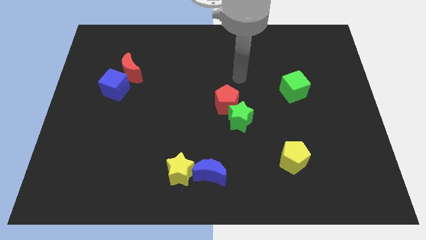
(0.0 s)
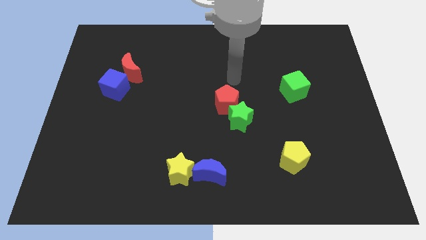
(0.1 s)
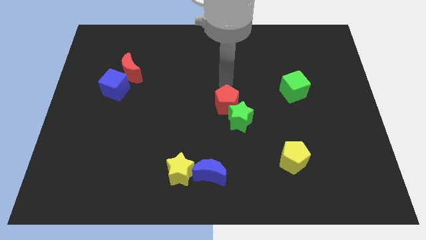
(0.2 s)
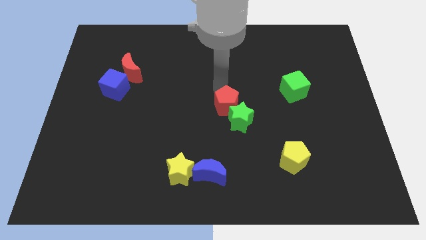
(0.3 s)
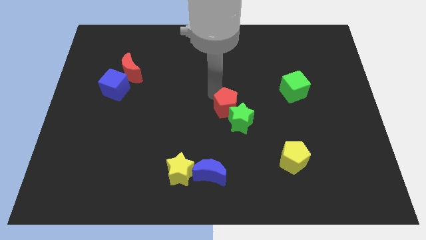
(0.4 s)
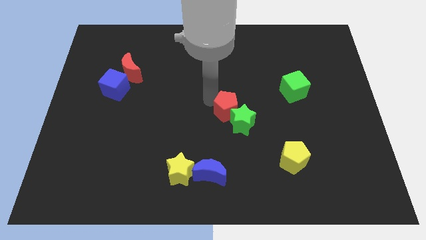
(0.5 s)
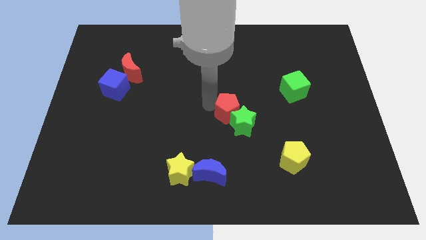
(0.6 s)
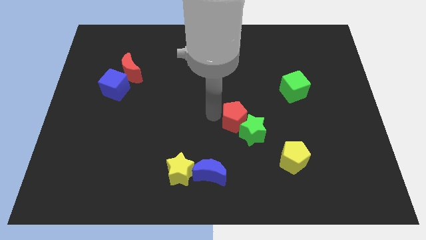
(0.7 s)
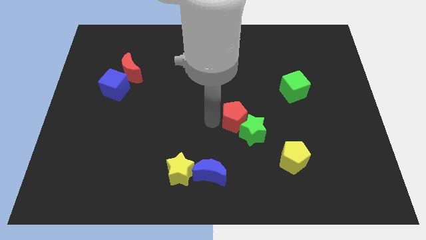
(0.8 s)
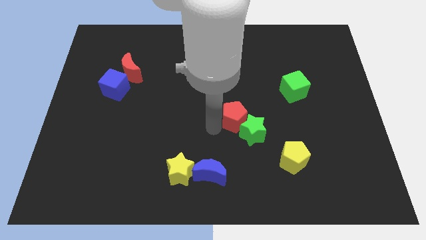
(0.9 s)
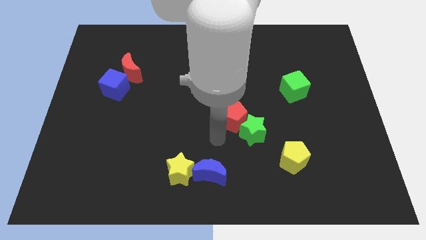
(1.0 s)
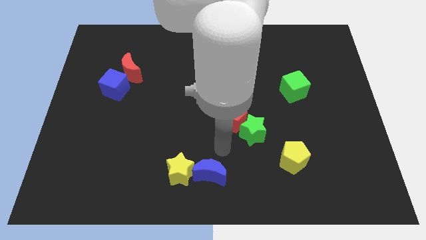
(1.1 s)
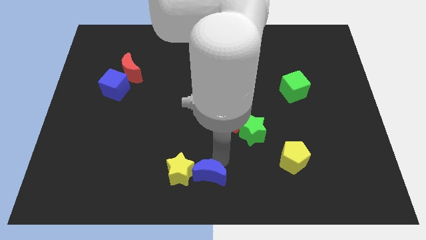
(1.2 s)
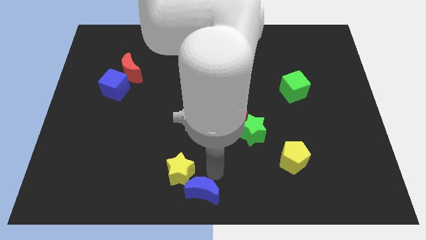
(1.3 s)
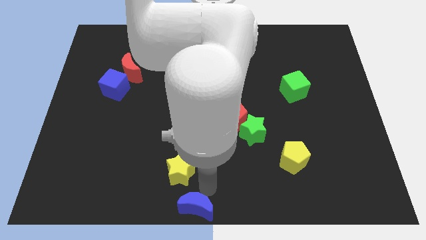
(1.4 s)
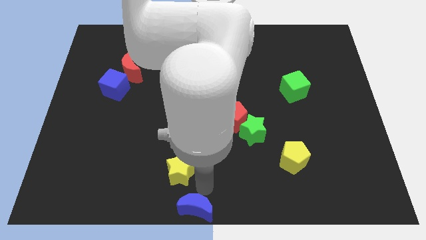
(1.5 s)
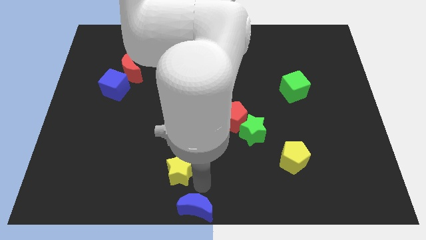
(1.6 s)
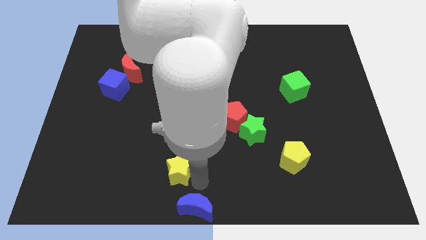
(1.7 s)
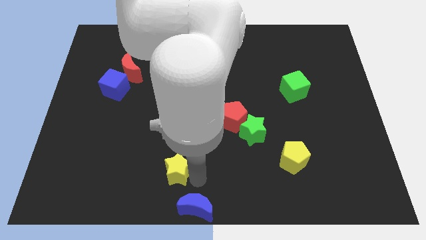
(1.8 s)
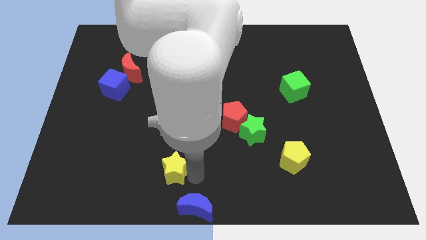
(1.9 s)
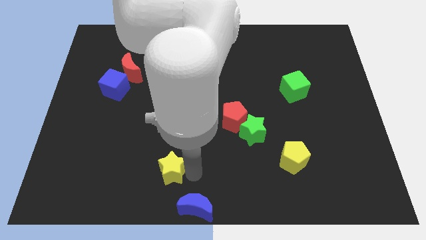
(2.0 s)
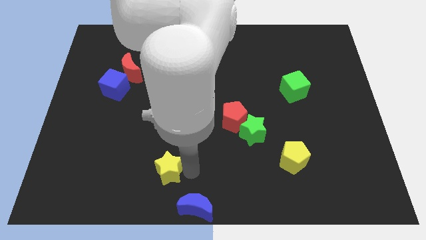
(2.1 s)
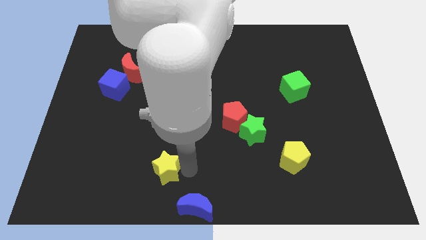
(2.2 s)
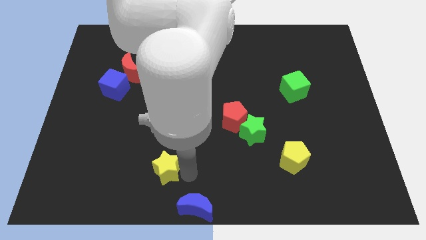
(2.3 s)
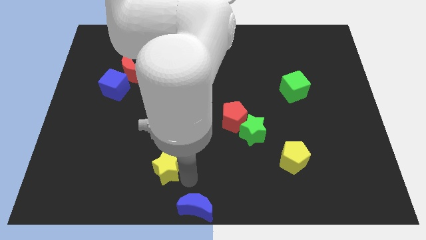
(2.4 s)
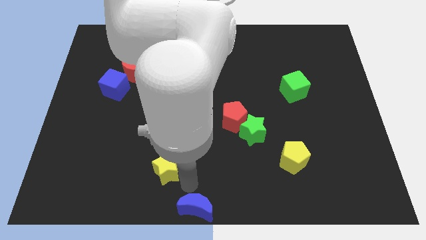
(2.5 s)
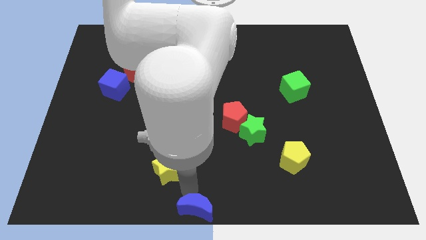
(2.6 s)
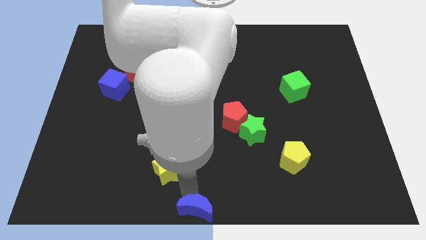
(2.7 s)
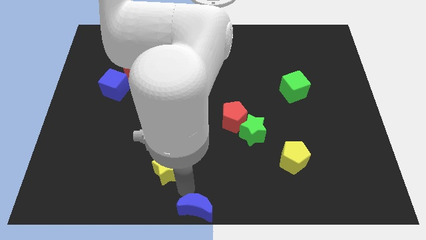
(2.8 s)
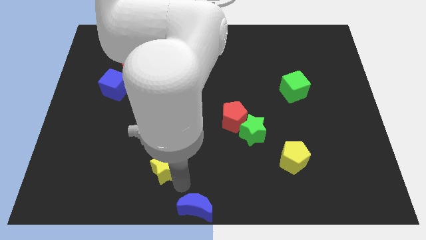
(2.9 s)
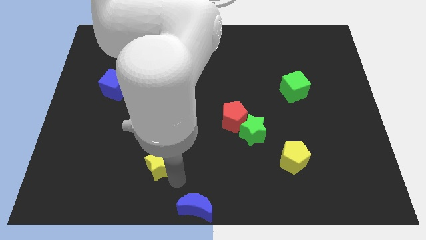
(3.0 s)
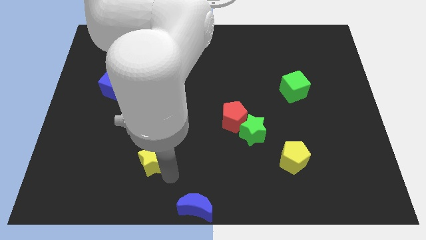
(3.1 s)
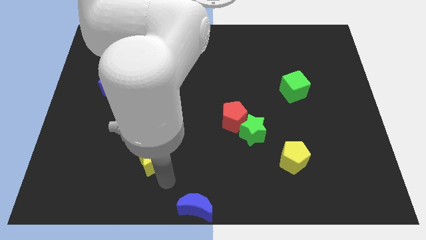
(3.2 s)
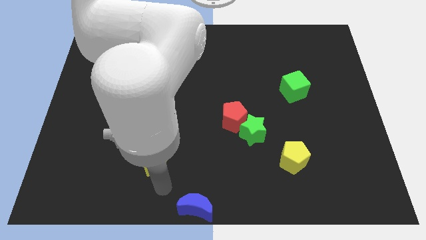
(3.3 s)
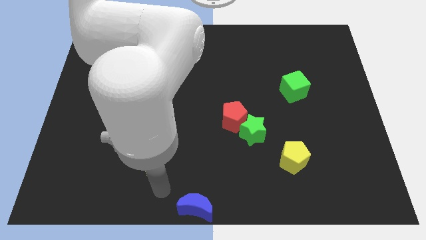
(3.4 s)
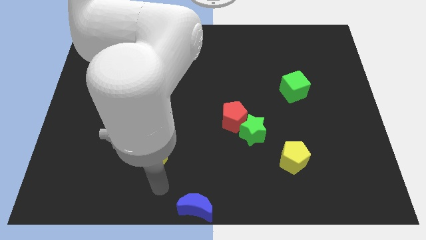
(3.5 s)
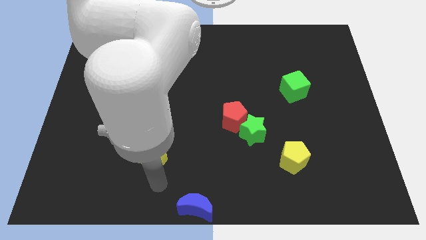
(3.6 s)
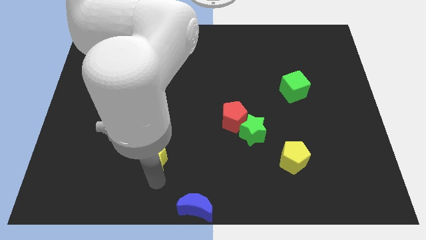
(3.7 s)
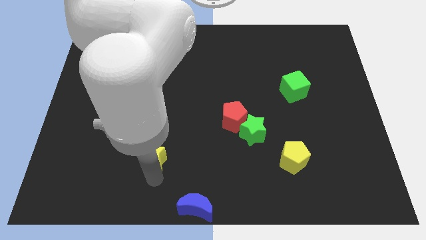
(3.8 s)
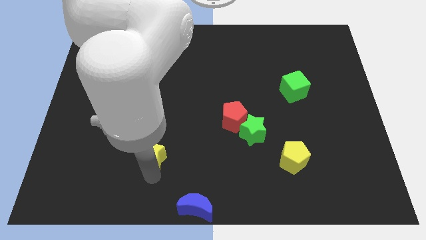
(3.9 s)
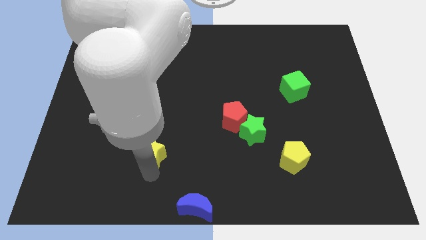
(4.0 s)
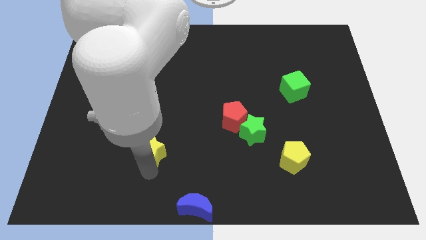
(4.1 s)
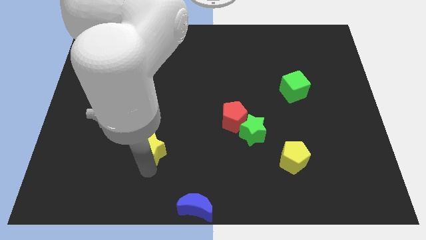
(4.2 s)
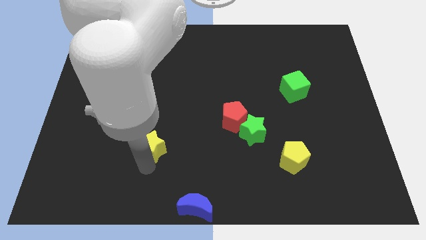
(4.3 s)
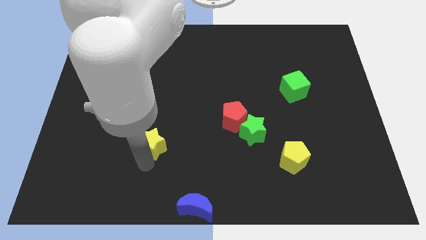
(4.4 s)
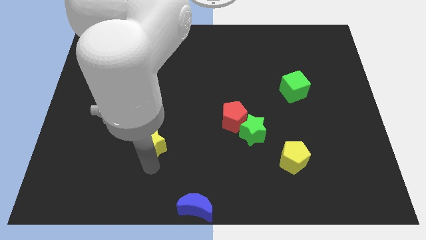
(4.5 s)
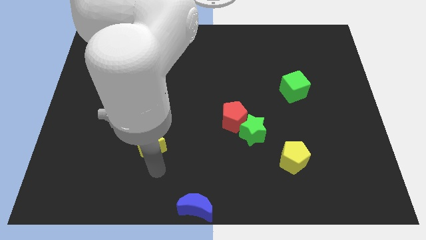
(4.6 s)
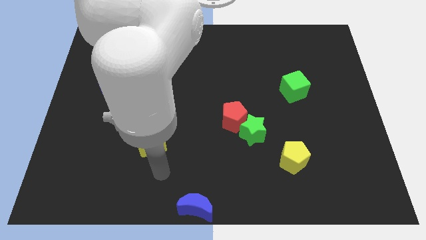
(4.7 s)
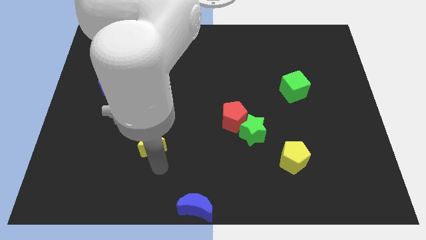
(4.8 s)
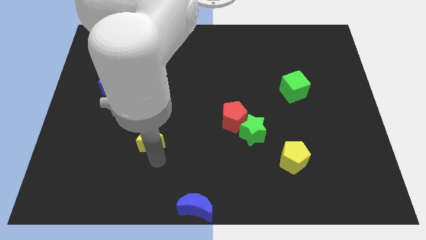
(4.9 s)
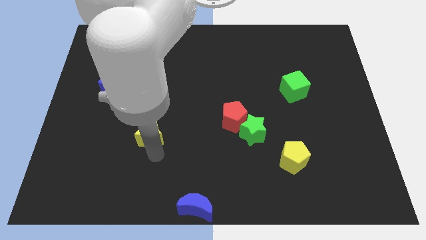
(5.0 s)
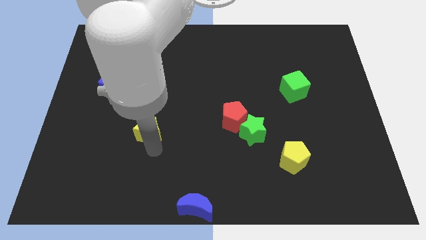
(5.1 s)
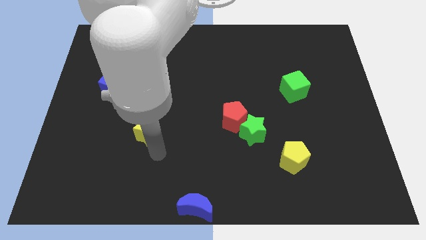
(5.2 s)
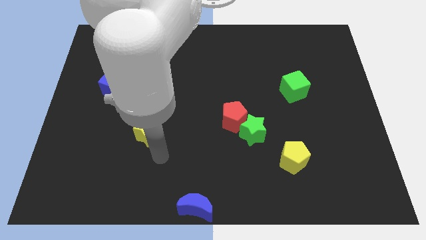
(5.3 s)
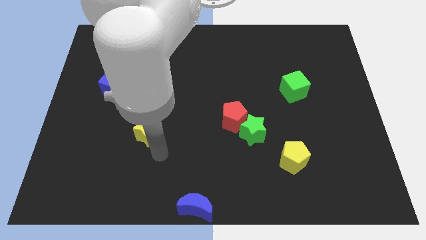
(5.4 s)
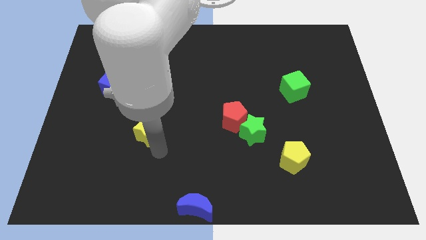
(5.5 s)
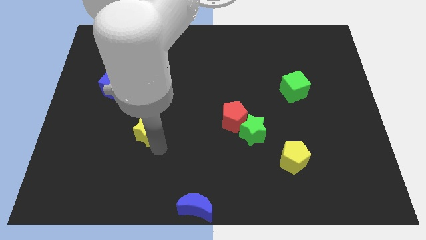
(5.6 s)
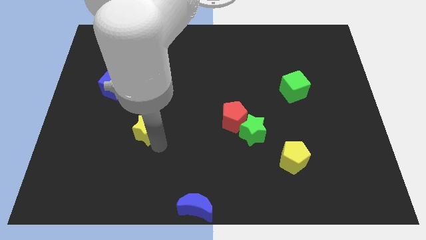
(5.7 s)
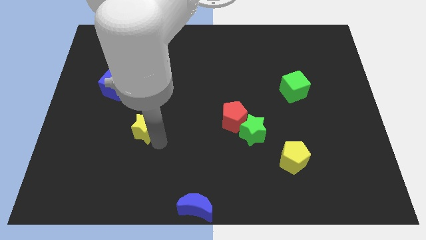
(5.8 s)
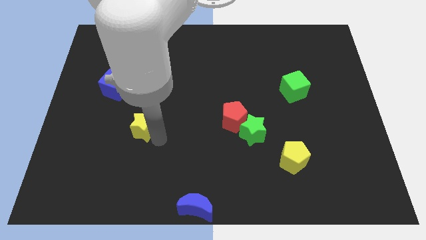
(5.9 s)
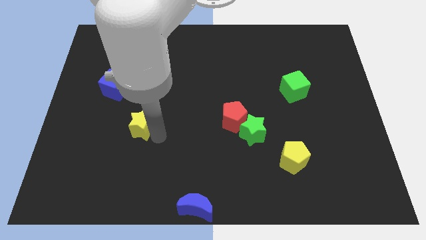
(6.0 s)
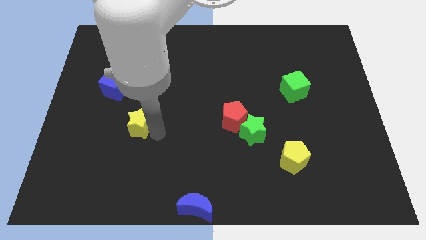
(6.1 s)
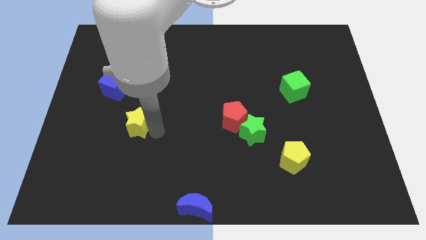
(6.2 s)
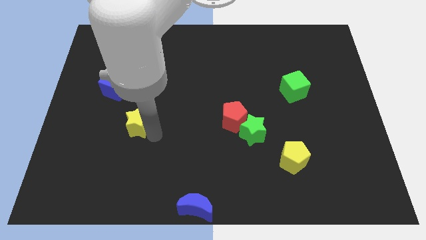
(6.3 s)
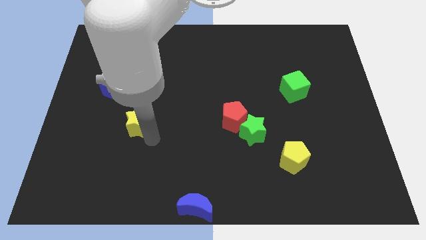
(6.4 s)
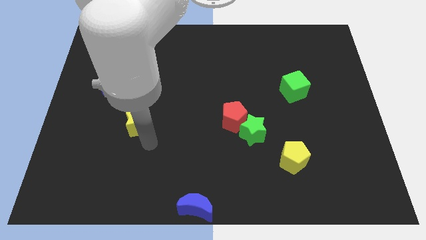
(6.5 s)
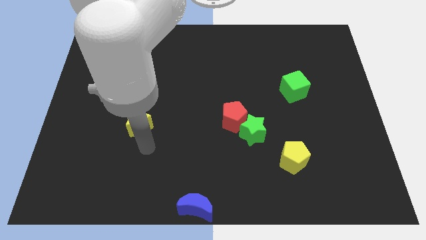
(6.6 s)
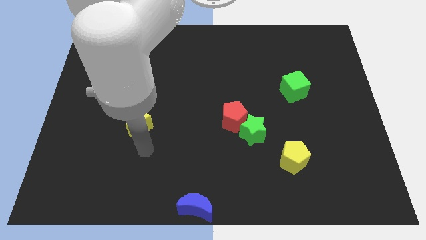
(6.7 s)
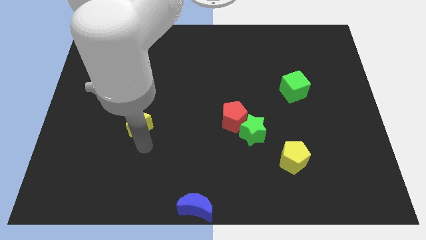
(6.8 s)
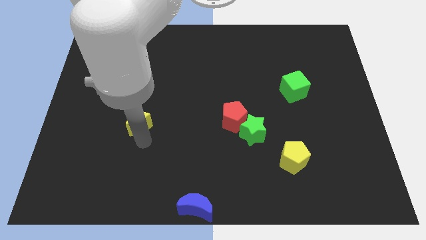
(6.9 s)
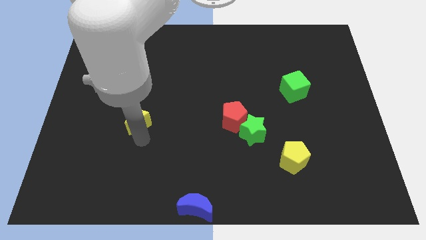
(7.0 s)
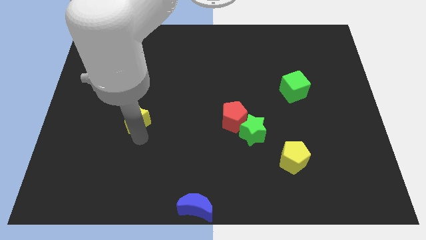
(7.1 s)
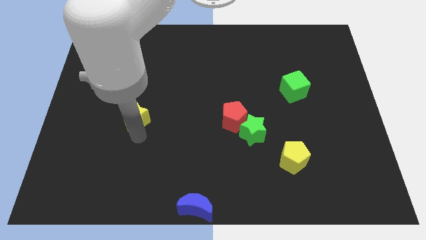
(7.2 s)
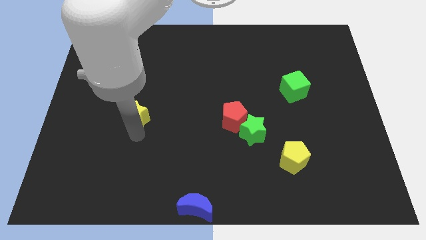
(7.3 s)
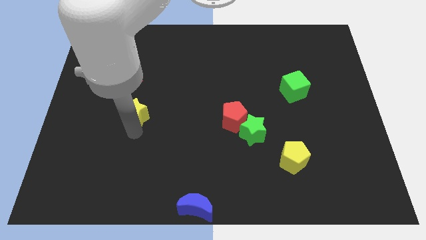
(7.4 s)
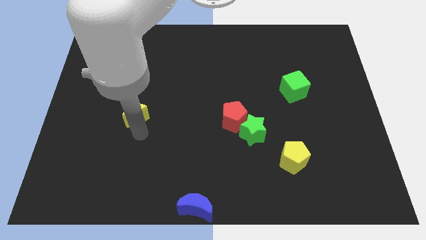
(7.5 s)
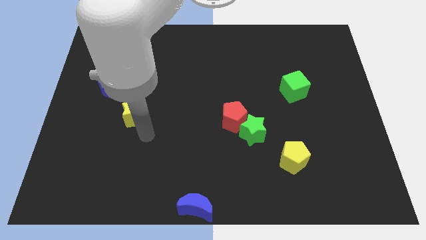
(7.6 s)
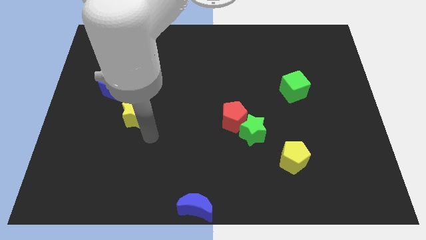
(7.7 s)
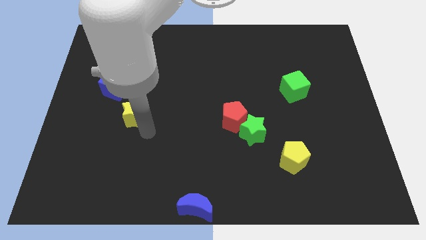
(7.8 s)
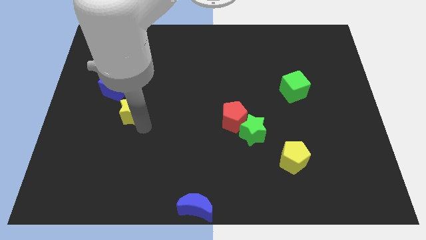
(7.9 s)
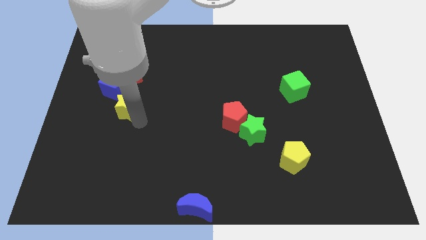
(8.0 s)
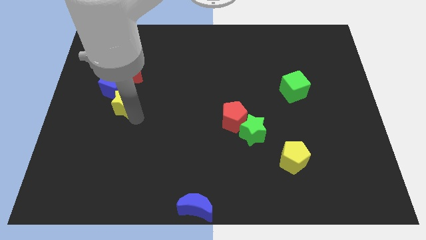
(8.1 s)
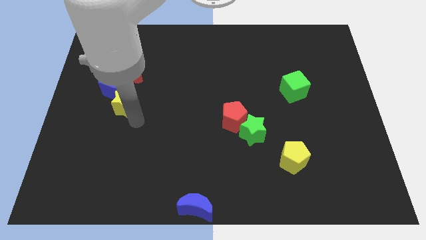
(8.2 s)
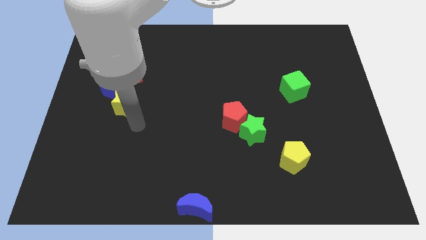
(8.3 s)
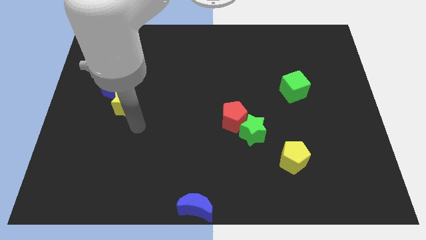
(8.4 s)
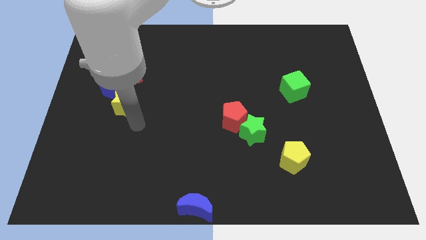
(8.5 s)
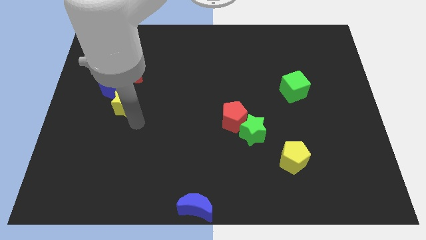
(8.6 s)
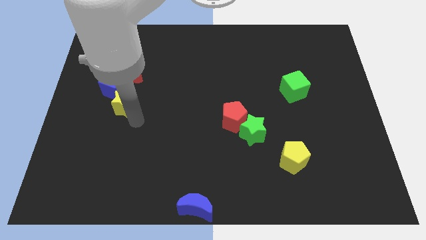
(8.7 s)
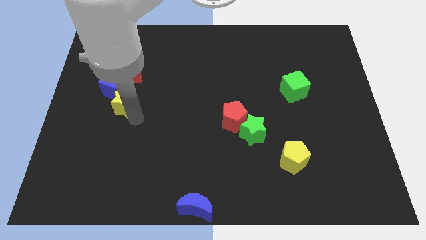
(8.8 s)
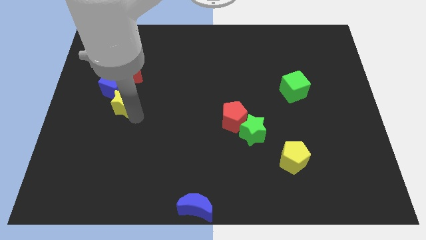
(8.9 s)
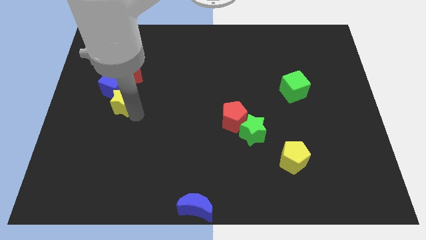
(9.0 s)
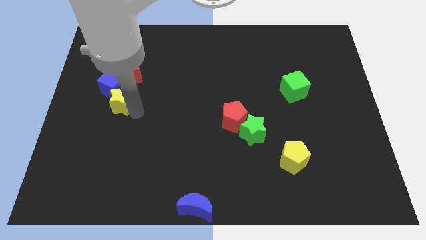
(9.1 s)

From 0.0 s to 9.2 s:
move the yellow star close to the blue cube
